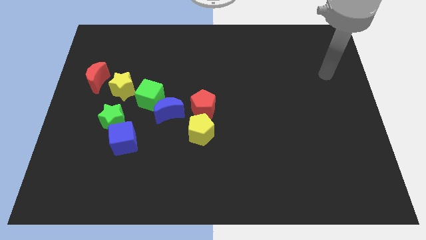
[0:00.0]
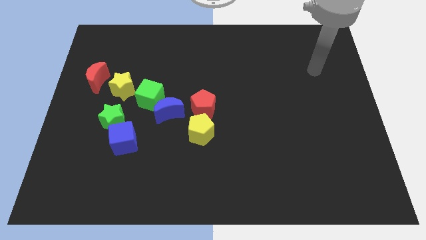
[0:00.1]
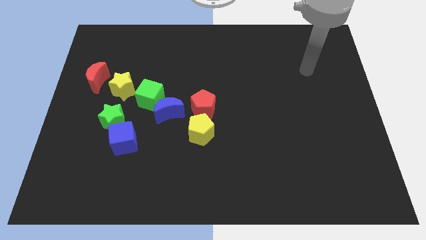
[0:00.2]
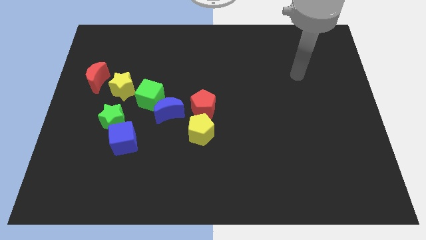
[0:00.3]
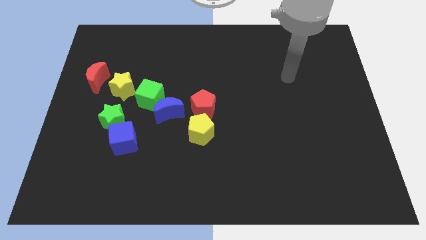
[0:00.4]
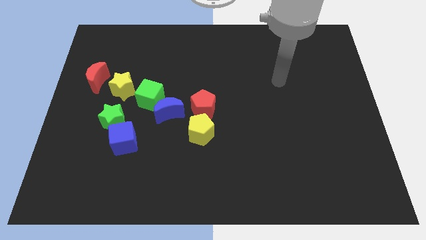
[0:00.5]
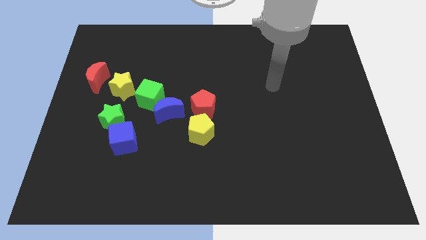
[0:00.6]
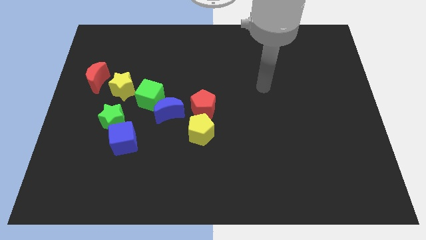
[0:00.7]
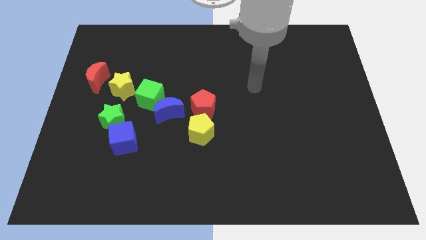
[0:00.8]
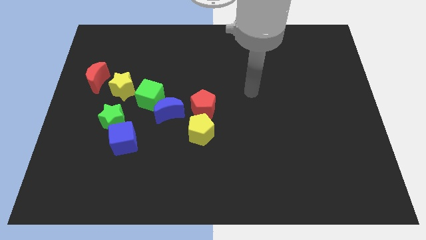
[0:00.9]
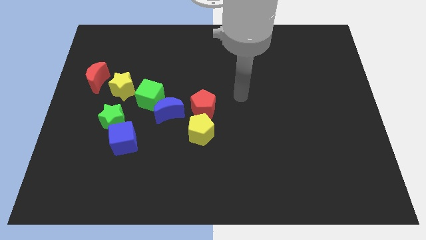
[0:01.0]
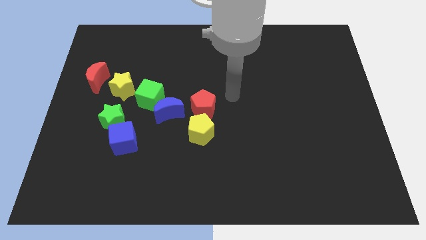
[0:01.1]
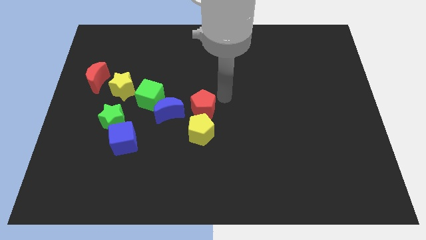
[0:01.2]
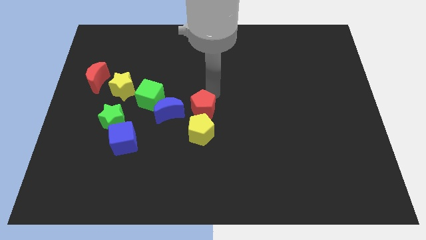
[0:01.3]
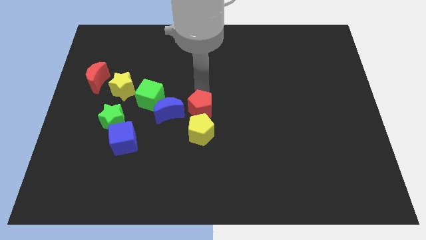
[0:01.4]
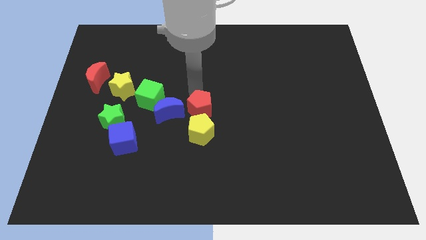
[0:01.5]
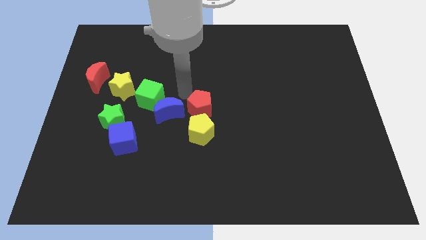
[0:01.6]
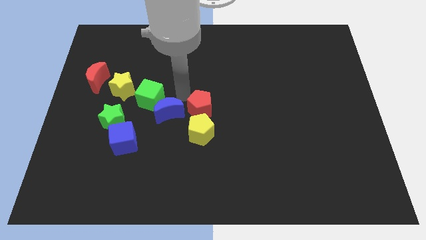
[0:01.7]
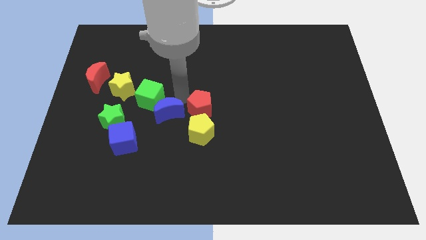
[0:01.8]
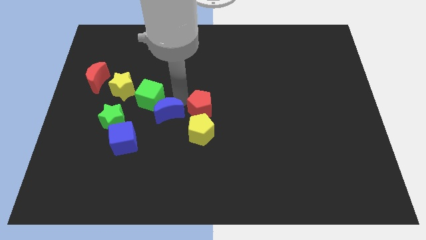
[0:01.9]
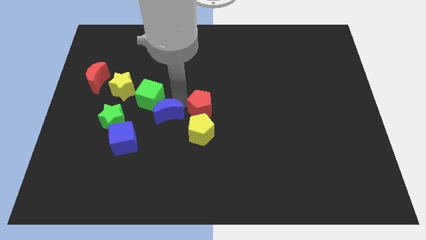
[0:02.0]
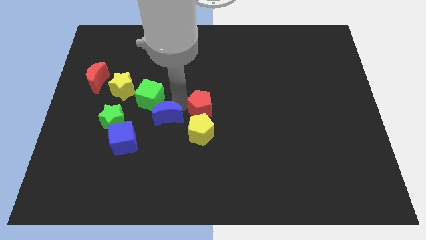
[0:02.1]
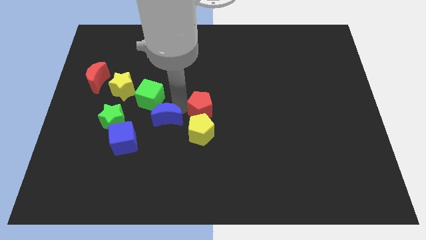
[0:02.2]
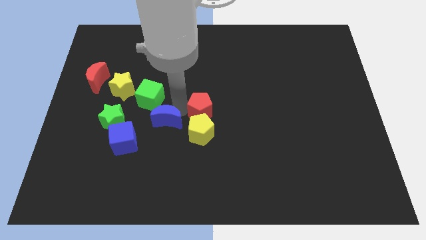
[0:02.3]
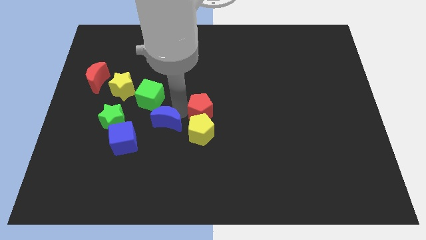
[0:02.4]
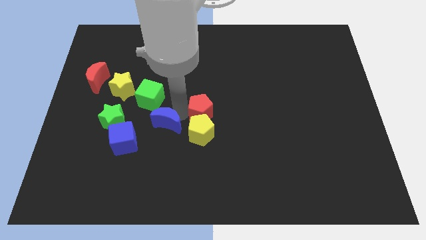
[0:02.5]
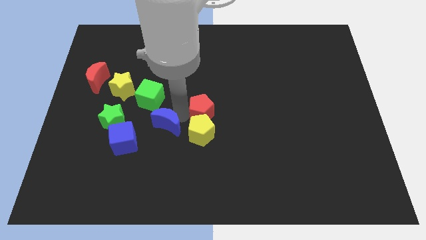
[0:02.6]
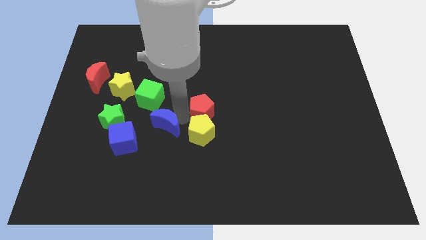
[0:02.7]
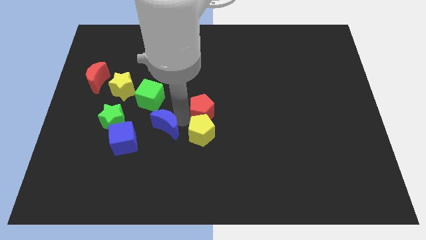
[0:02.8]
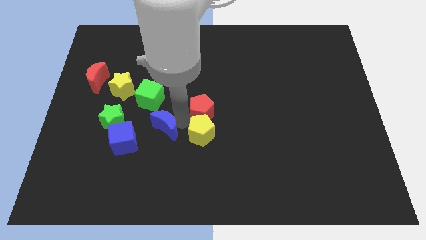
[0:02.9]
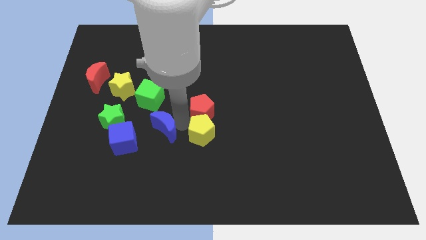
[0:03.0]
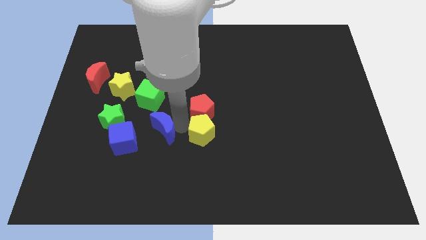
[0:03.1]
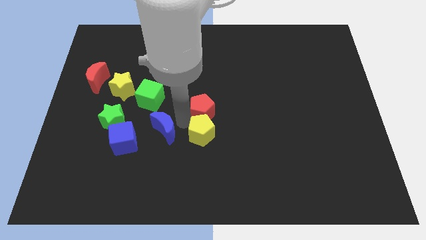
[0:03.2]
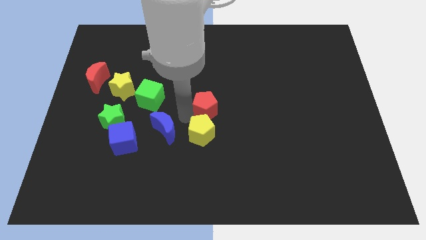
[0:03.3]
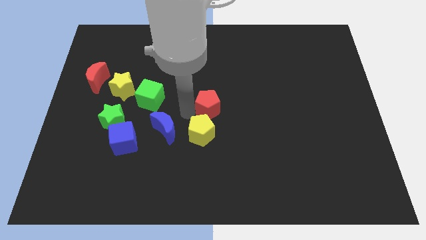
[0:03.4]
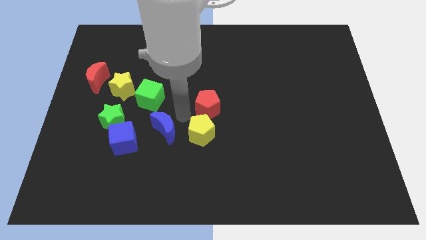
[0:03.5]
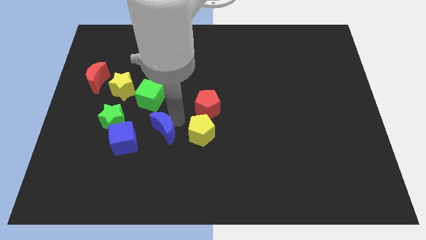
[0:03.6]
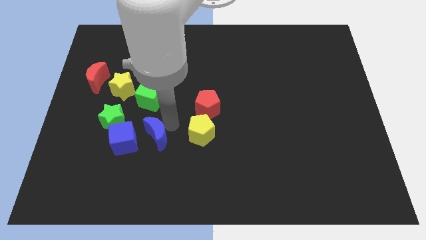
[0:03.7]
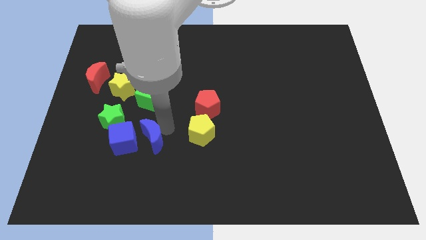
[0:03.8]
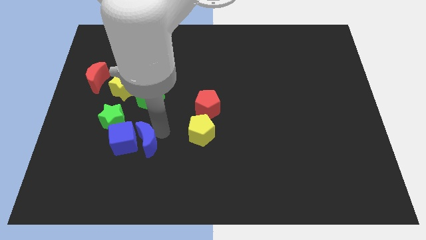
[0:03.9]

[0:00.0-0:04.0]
slightly slide the blue moon diagonally down and left

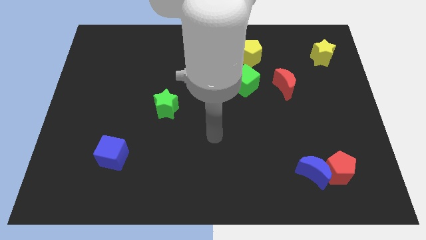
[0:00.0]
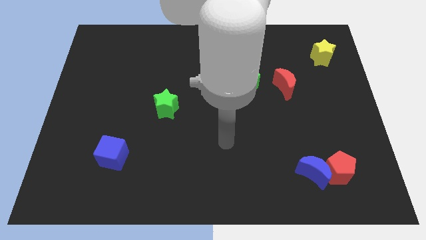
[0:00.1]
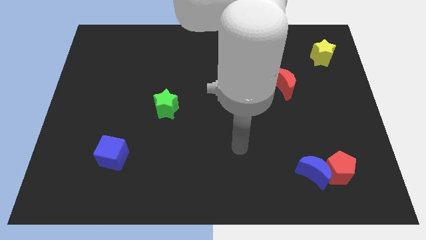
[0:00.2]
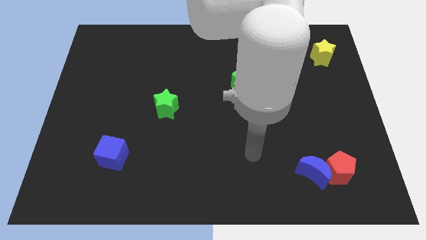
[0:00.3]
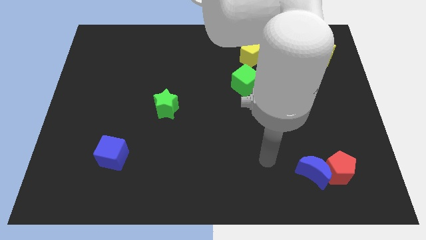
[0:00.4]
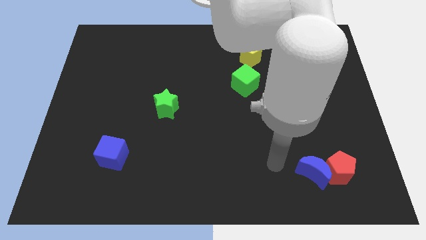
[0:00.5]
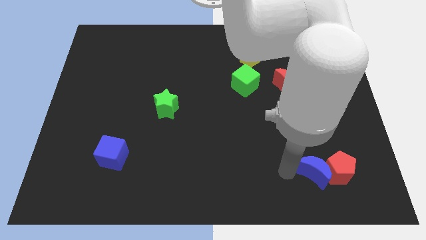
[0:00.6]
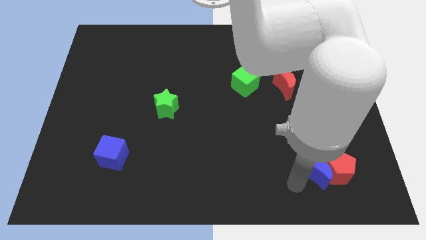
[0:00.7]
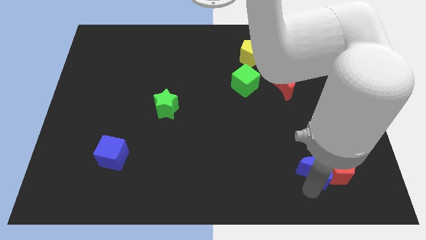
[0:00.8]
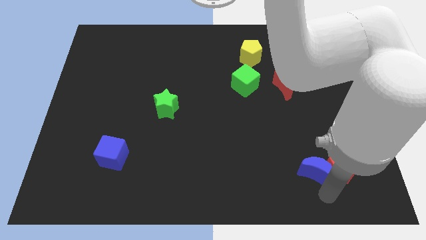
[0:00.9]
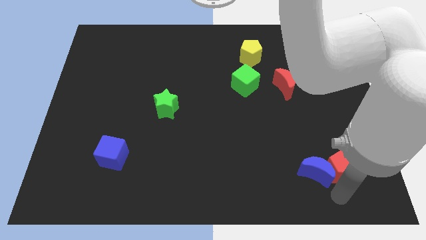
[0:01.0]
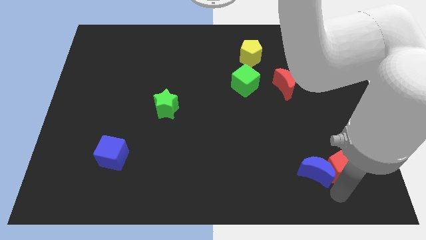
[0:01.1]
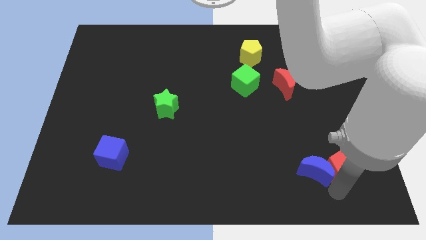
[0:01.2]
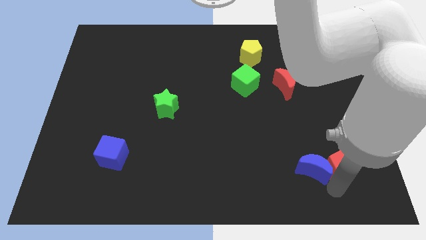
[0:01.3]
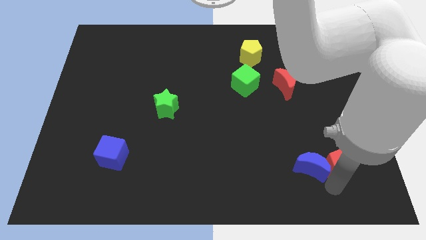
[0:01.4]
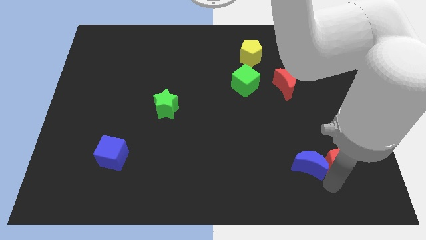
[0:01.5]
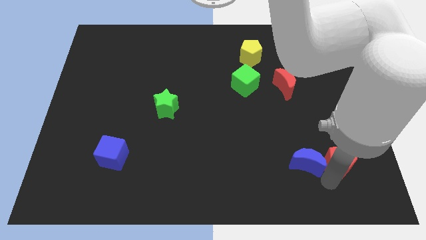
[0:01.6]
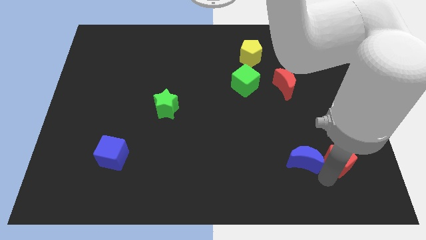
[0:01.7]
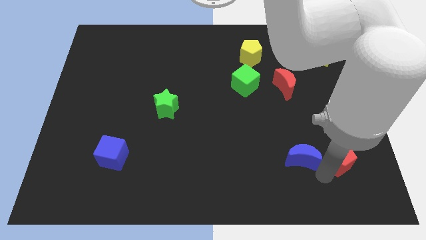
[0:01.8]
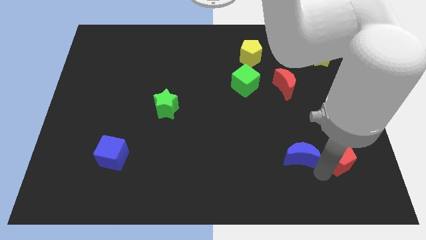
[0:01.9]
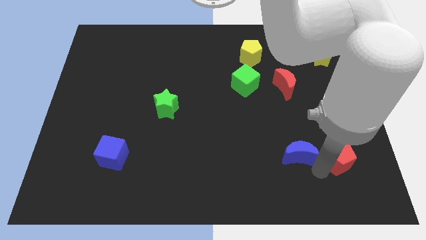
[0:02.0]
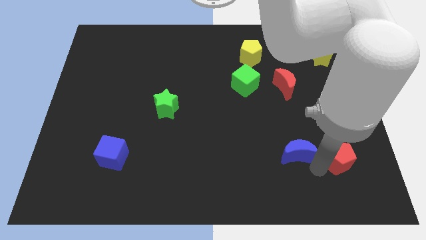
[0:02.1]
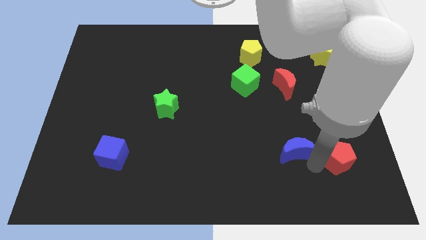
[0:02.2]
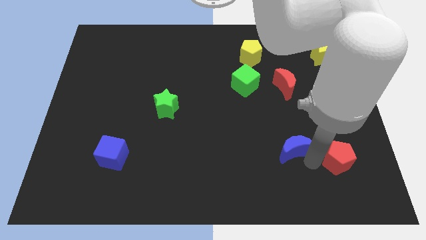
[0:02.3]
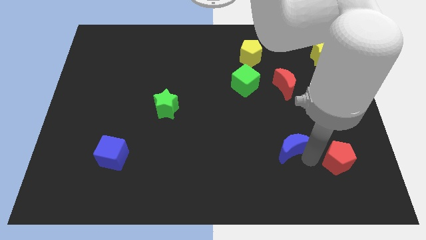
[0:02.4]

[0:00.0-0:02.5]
push the blue moon diagonally up and to the left a bit

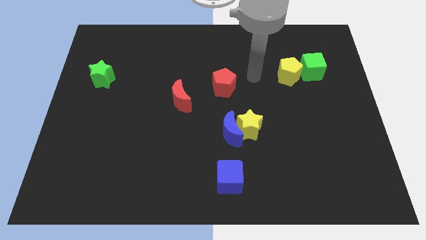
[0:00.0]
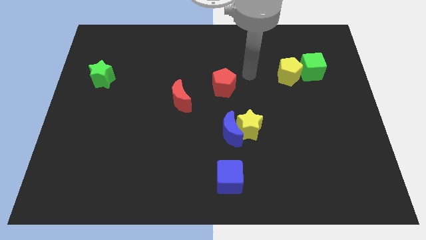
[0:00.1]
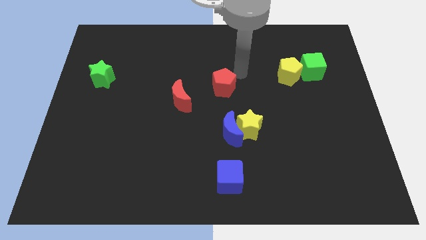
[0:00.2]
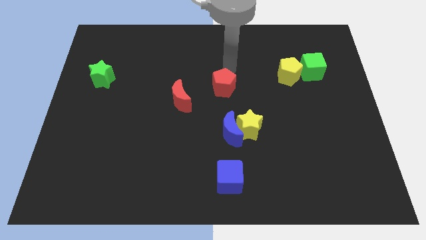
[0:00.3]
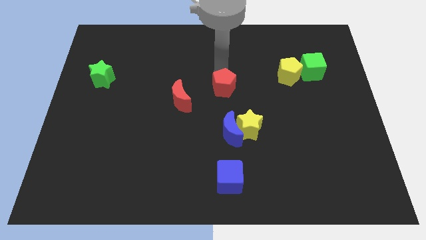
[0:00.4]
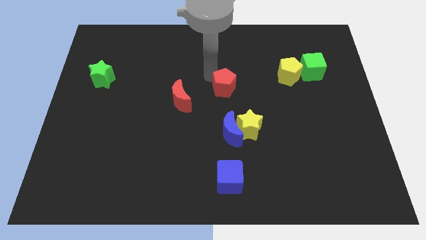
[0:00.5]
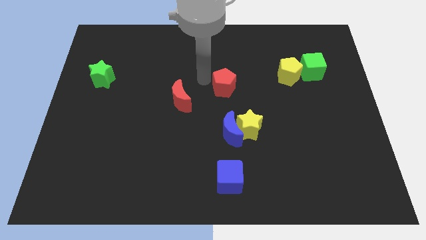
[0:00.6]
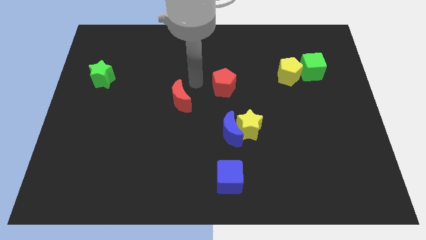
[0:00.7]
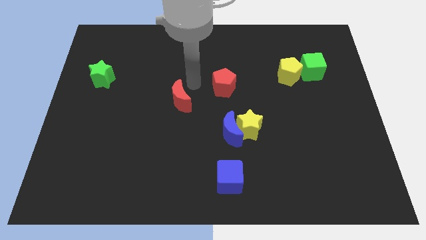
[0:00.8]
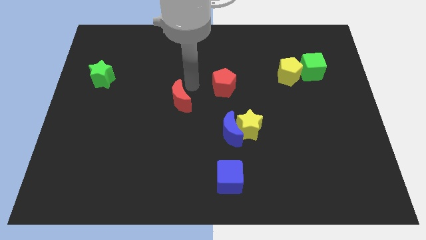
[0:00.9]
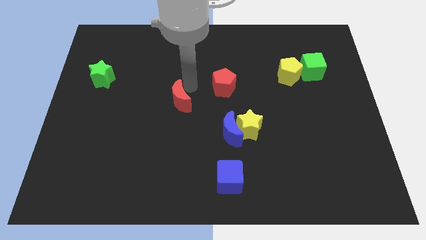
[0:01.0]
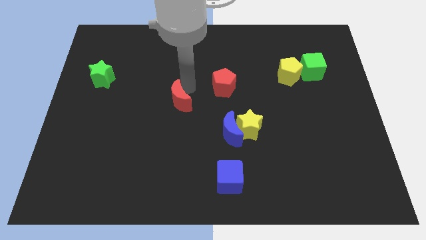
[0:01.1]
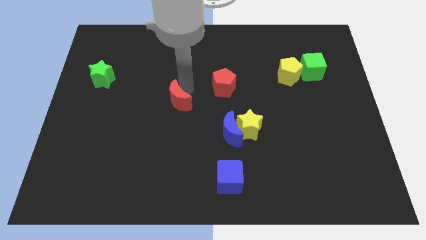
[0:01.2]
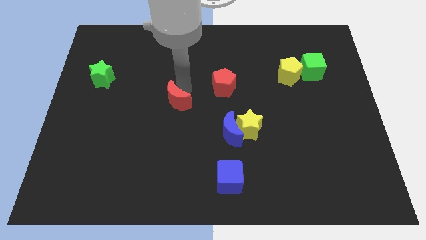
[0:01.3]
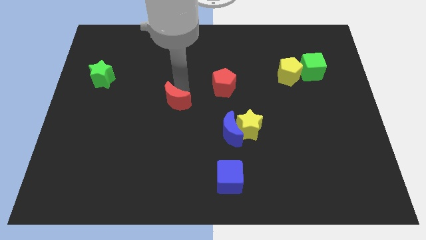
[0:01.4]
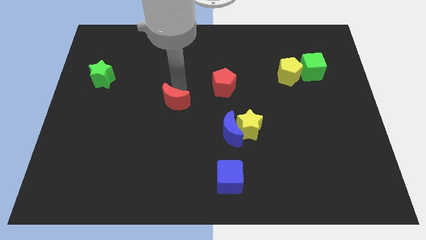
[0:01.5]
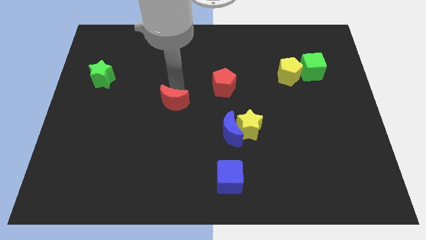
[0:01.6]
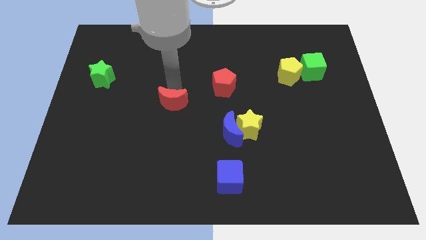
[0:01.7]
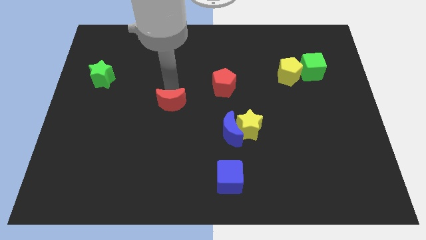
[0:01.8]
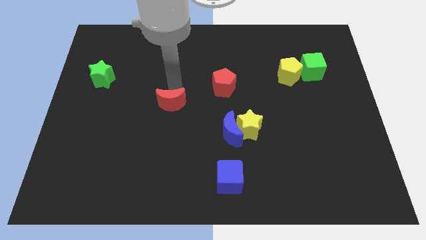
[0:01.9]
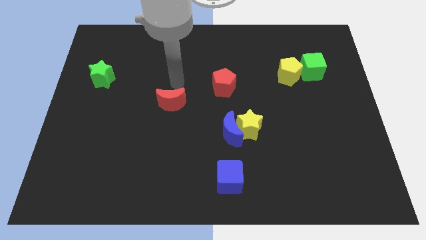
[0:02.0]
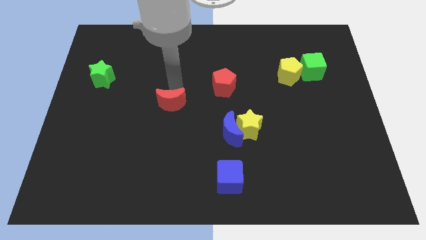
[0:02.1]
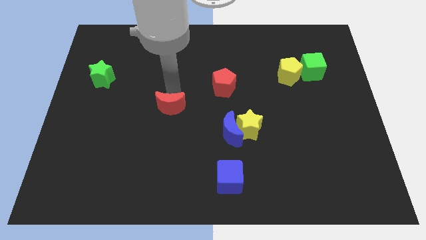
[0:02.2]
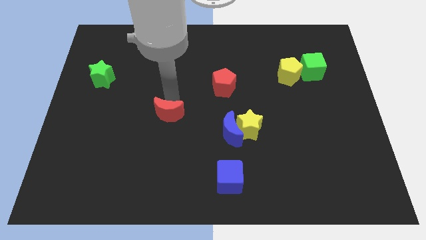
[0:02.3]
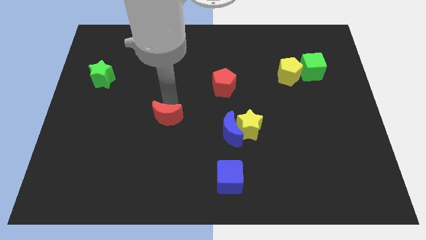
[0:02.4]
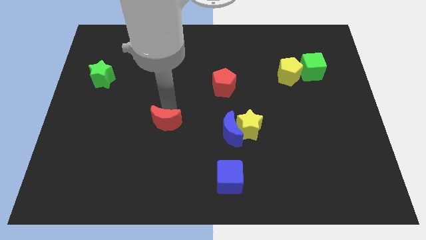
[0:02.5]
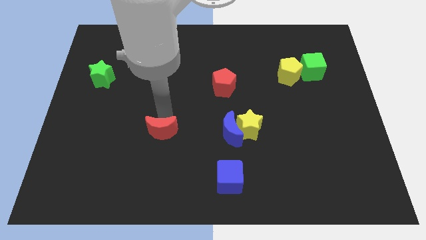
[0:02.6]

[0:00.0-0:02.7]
slide the red moon down a little
